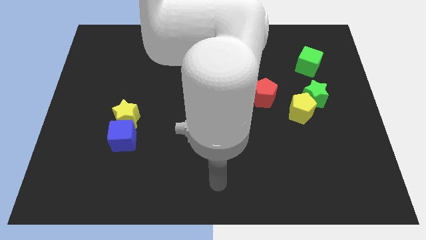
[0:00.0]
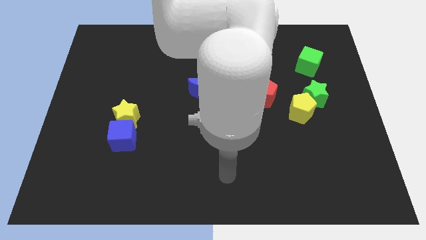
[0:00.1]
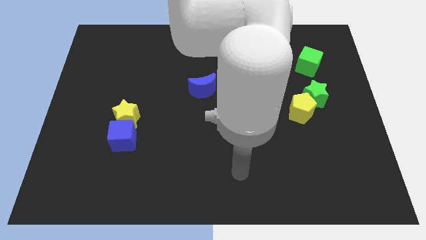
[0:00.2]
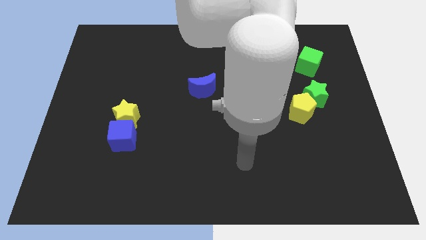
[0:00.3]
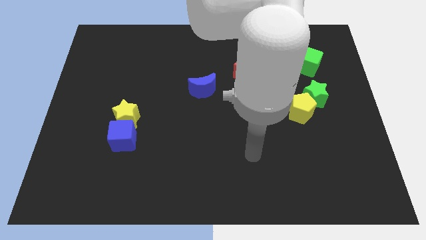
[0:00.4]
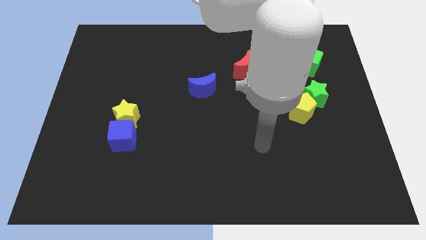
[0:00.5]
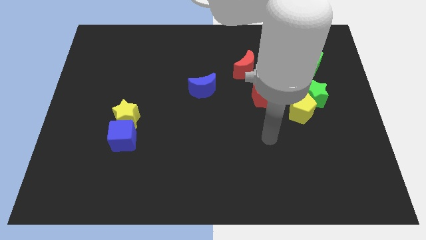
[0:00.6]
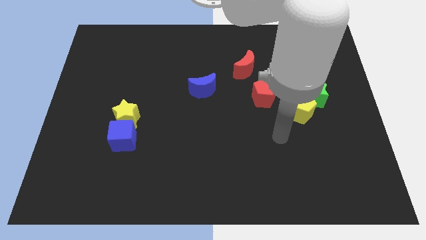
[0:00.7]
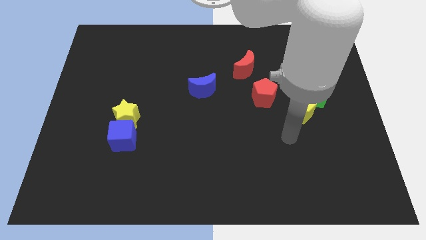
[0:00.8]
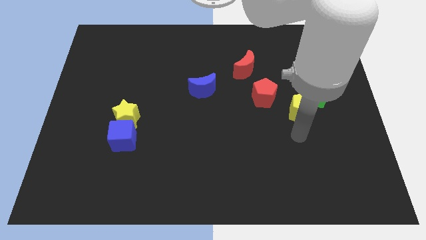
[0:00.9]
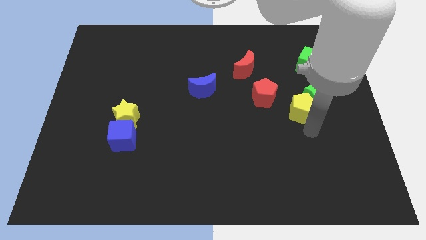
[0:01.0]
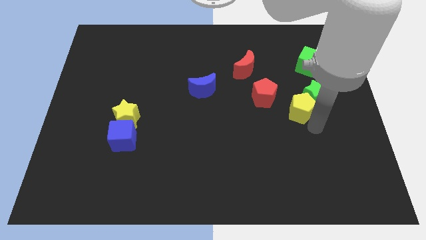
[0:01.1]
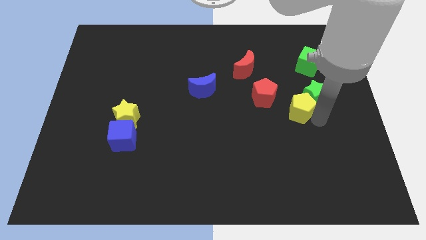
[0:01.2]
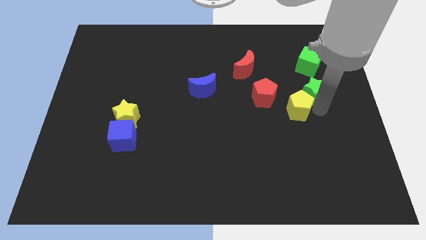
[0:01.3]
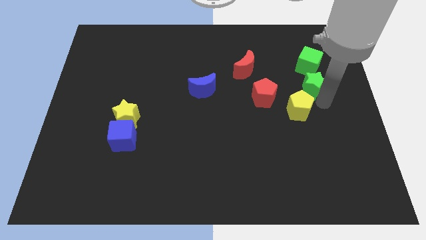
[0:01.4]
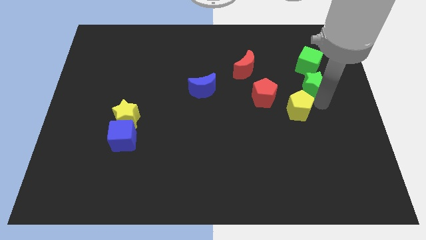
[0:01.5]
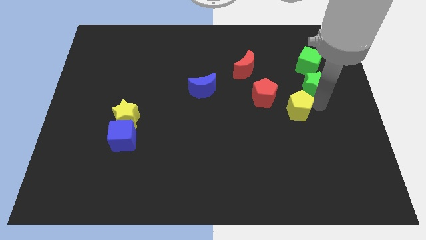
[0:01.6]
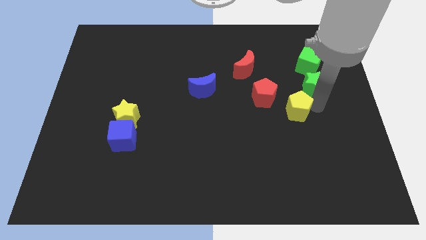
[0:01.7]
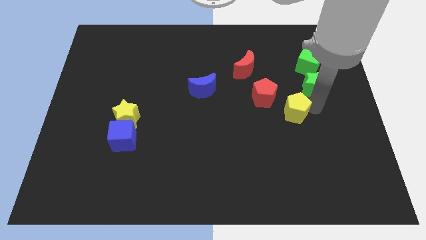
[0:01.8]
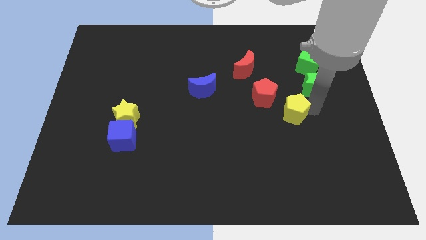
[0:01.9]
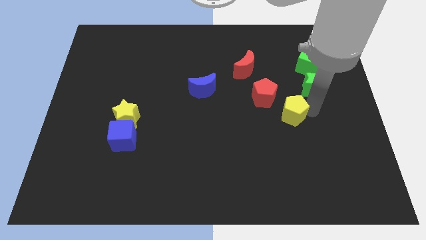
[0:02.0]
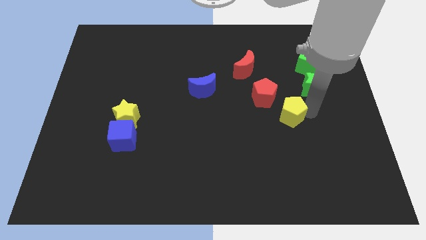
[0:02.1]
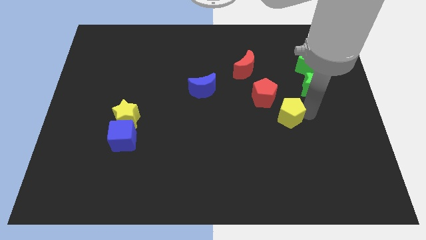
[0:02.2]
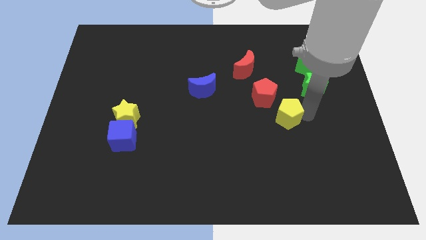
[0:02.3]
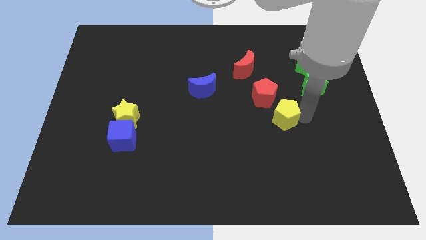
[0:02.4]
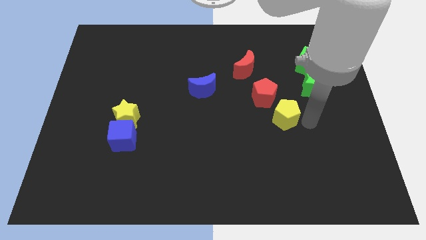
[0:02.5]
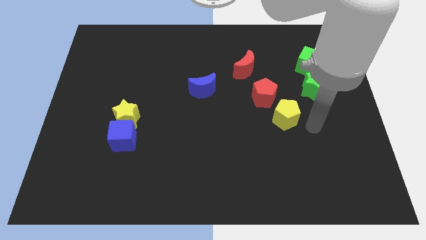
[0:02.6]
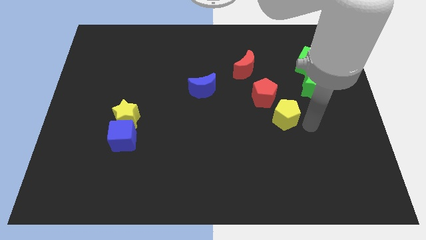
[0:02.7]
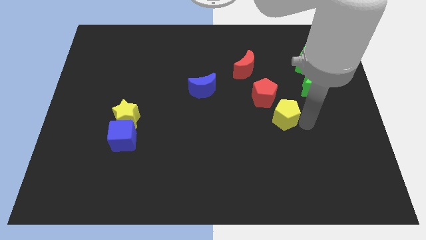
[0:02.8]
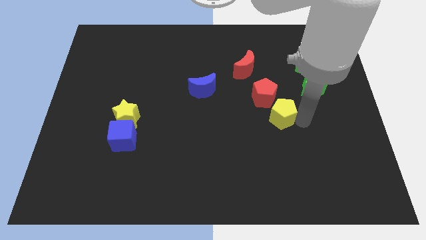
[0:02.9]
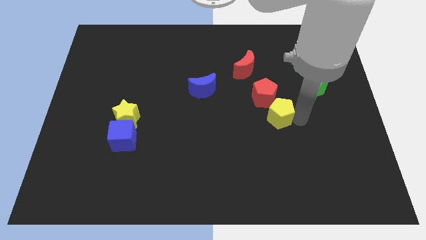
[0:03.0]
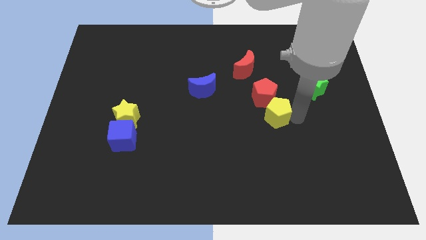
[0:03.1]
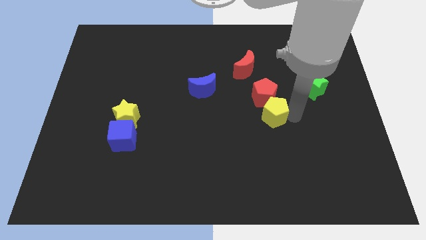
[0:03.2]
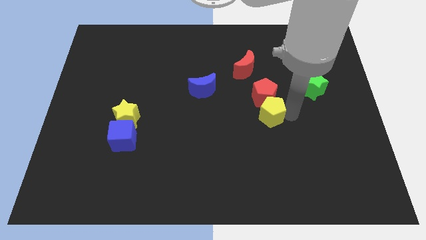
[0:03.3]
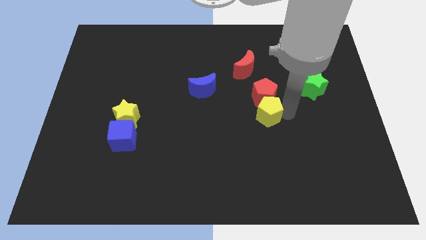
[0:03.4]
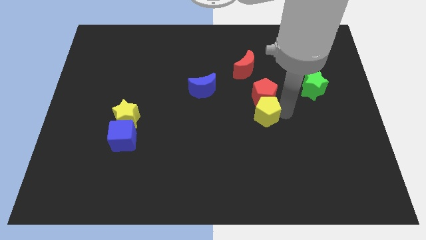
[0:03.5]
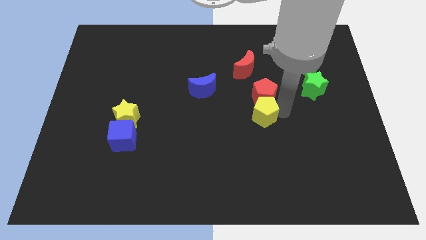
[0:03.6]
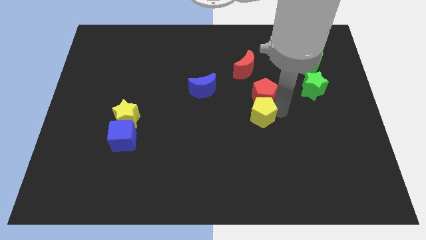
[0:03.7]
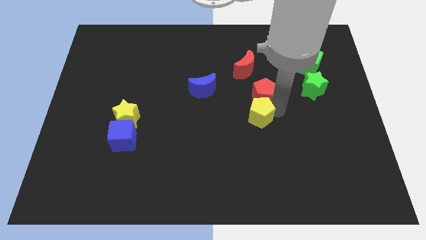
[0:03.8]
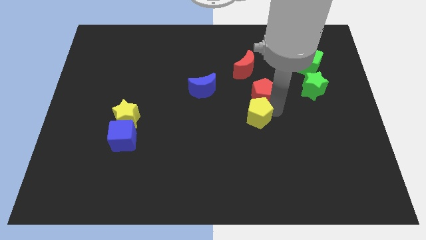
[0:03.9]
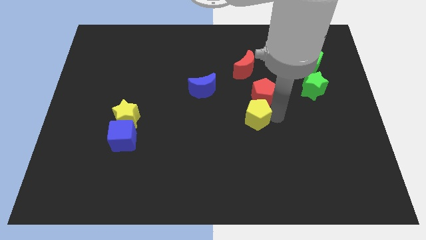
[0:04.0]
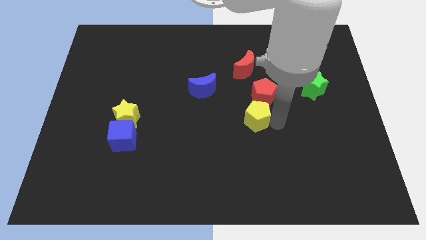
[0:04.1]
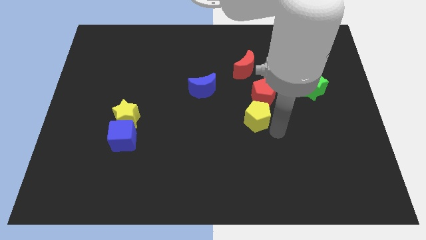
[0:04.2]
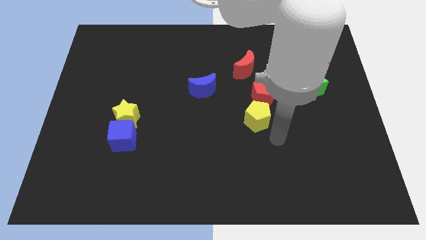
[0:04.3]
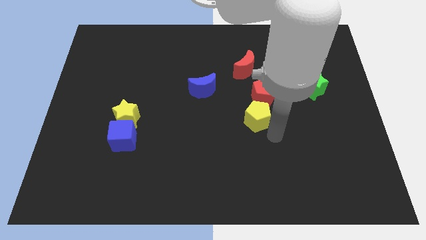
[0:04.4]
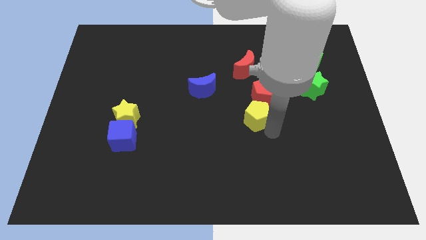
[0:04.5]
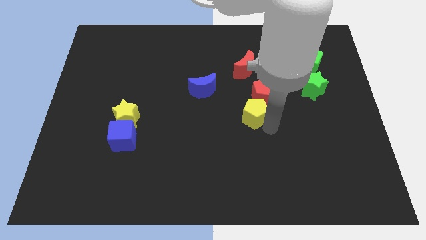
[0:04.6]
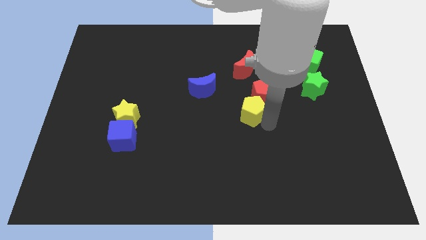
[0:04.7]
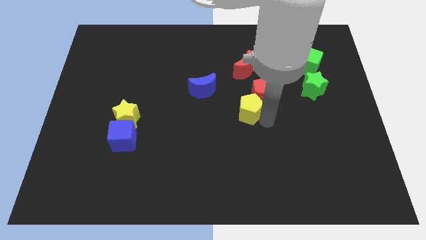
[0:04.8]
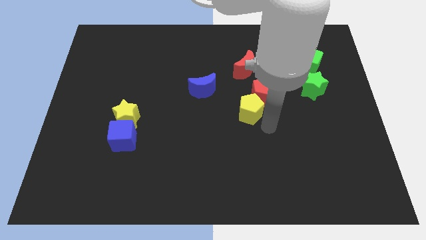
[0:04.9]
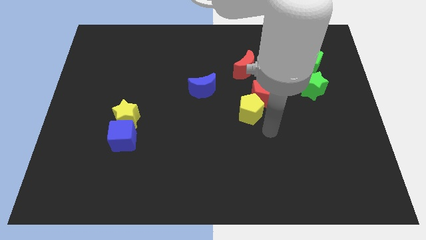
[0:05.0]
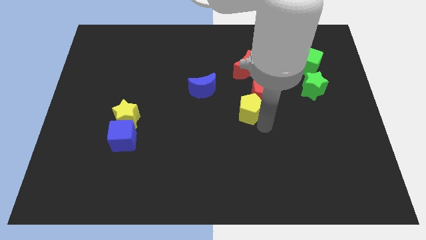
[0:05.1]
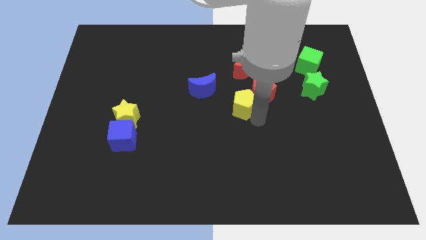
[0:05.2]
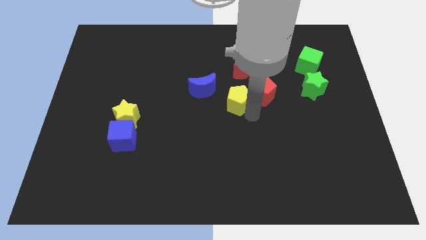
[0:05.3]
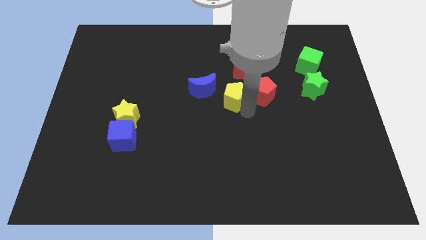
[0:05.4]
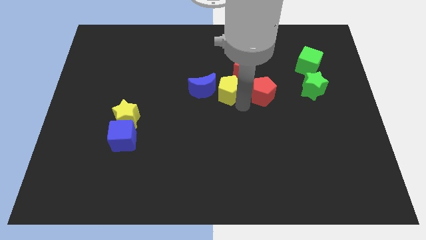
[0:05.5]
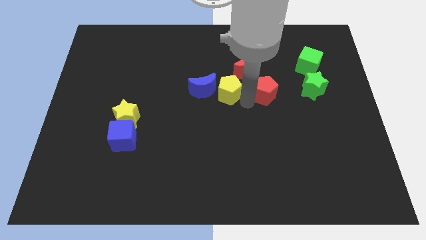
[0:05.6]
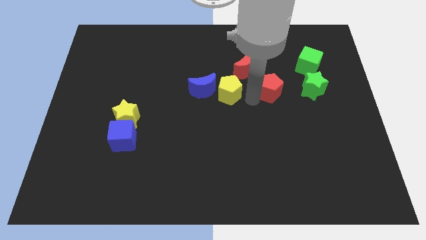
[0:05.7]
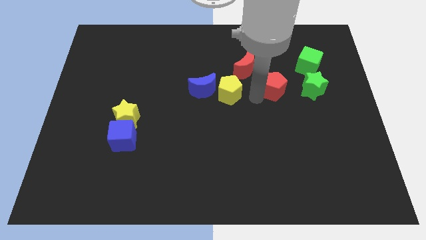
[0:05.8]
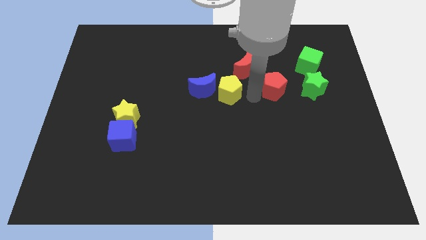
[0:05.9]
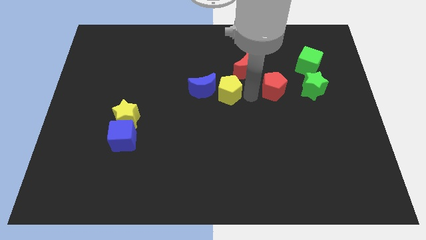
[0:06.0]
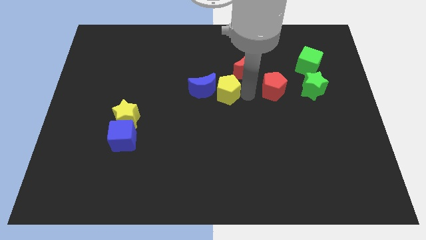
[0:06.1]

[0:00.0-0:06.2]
push the yellow pentagon next to the blue moon

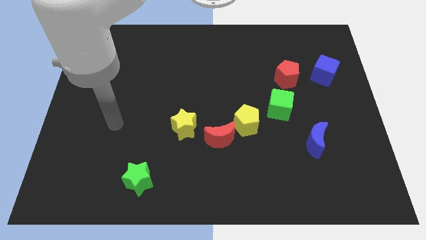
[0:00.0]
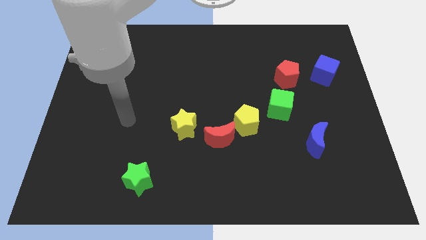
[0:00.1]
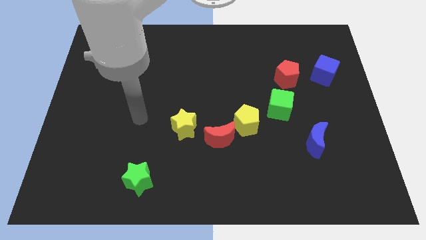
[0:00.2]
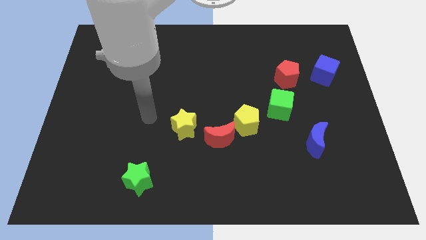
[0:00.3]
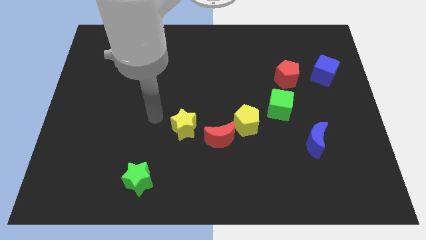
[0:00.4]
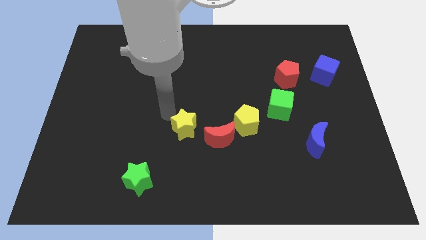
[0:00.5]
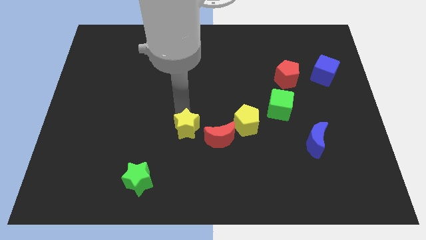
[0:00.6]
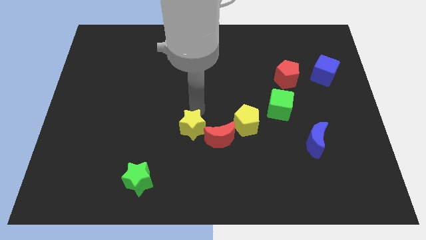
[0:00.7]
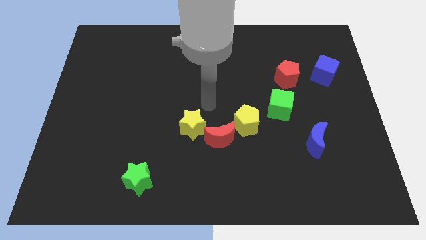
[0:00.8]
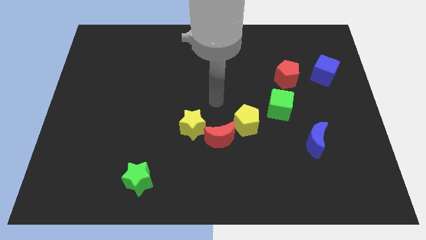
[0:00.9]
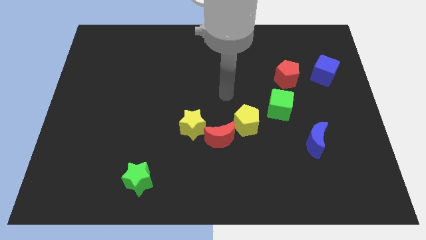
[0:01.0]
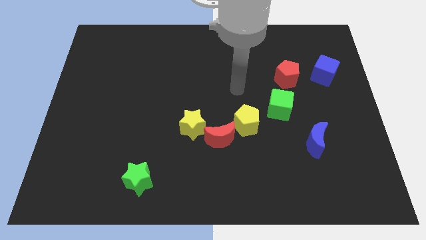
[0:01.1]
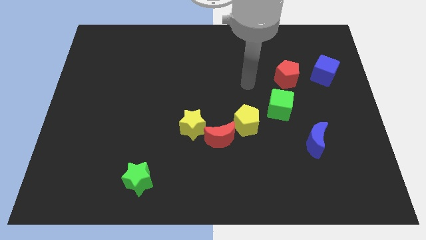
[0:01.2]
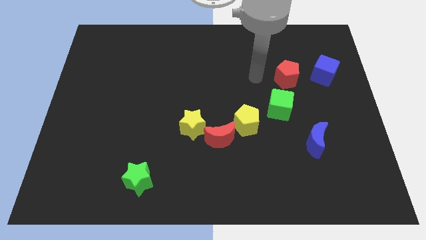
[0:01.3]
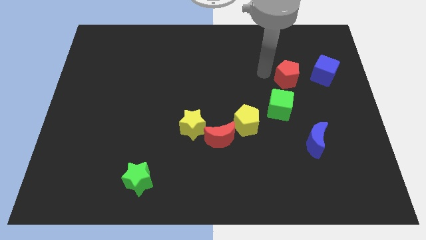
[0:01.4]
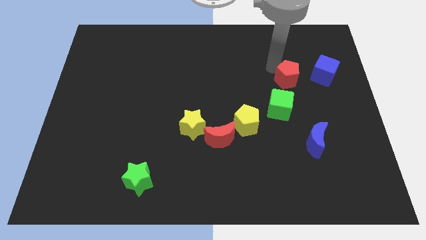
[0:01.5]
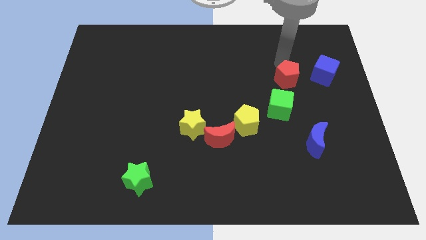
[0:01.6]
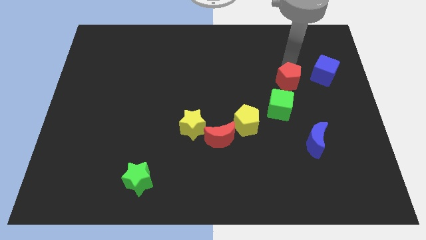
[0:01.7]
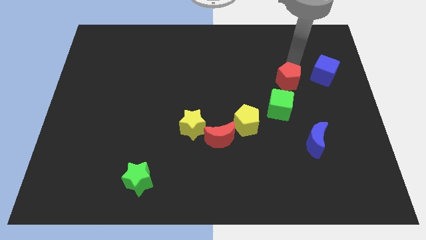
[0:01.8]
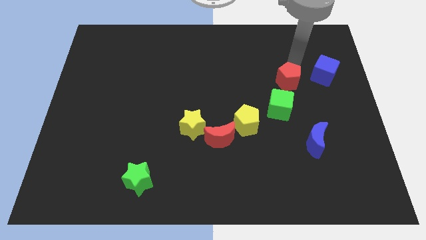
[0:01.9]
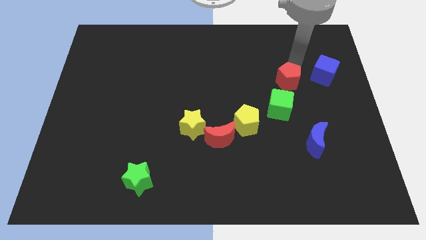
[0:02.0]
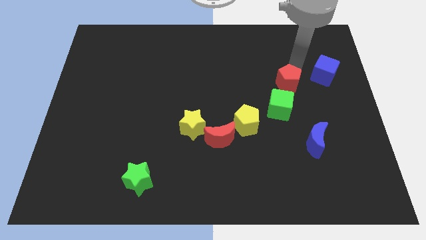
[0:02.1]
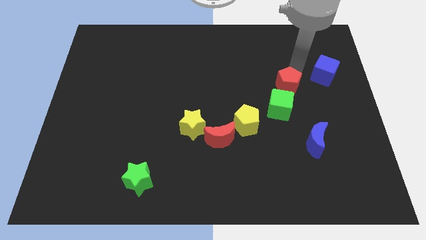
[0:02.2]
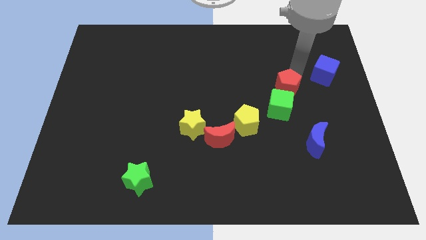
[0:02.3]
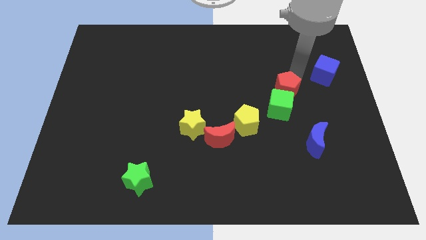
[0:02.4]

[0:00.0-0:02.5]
move the red pentagon to the green cube
